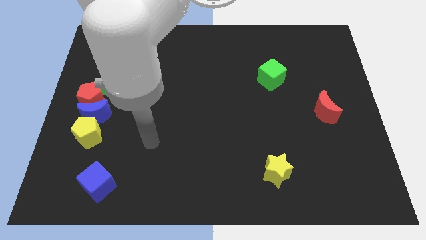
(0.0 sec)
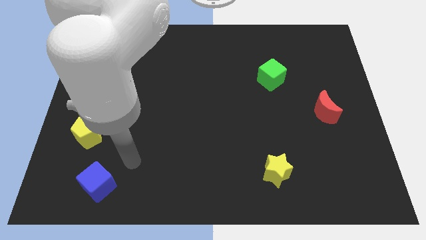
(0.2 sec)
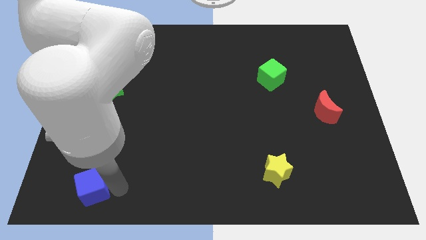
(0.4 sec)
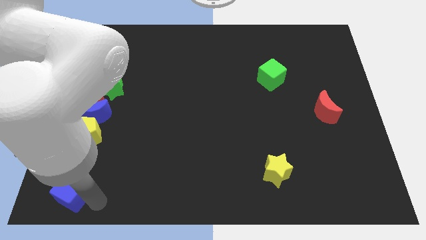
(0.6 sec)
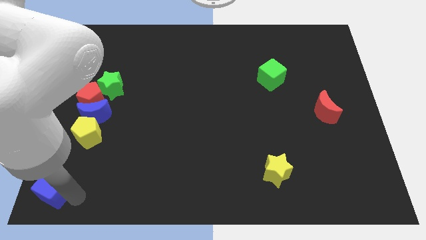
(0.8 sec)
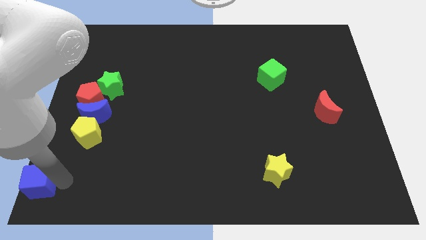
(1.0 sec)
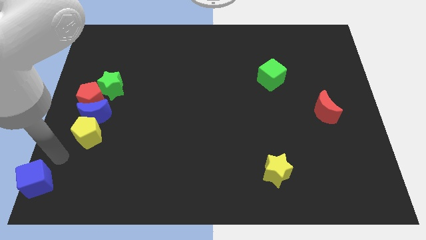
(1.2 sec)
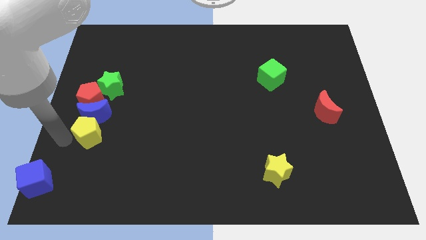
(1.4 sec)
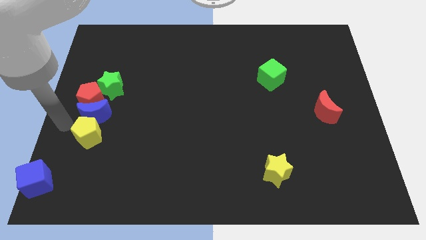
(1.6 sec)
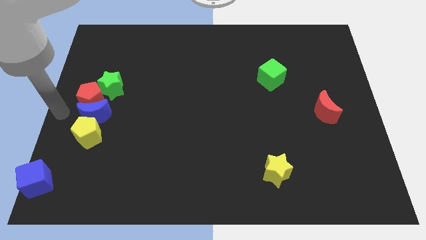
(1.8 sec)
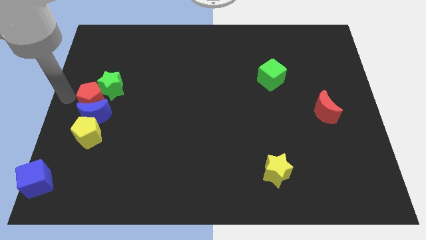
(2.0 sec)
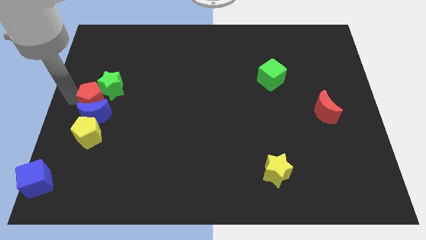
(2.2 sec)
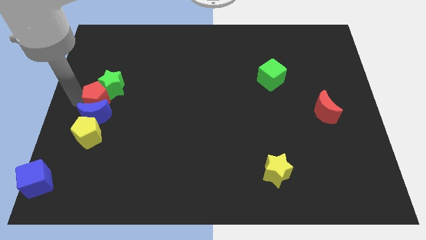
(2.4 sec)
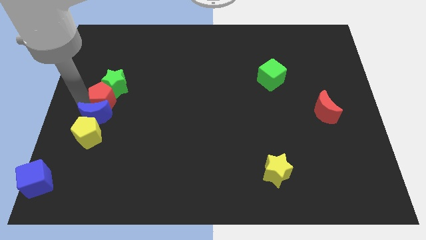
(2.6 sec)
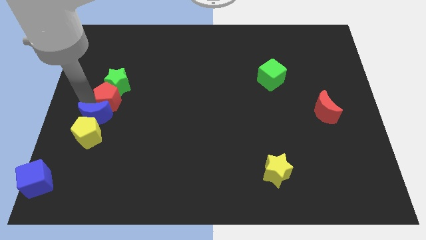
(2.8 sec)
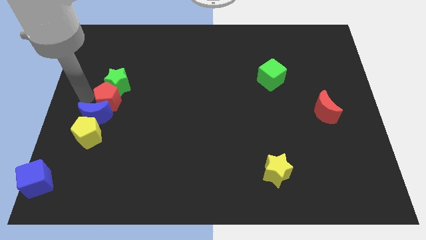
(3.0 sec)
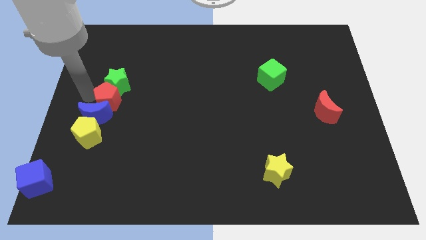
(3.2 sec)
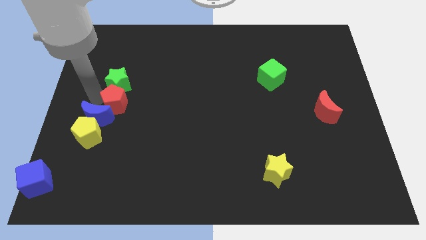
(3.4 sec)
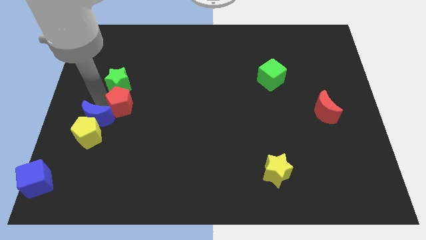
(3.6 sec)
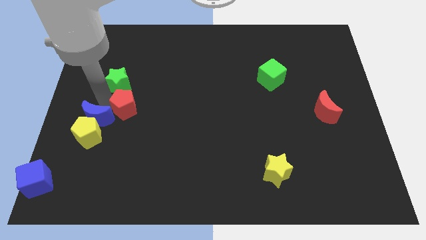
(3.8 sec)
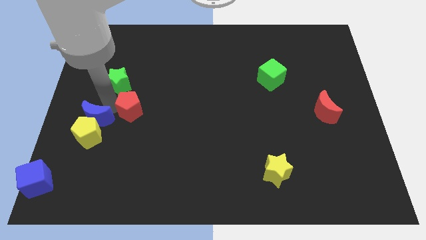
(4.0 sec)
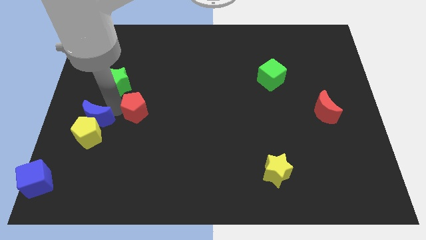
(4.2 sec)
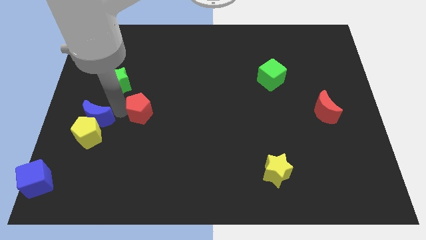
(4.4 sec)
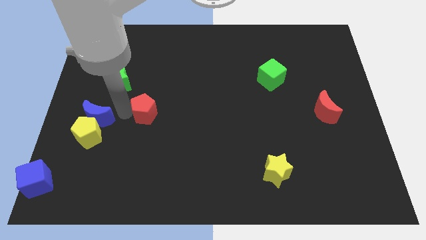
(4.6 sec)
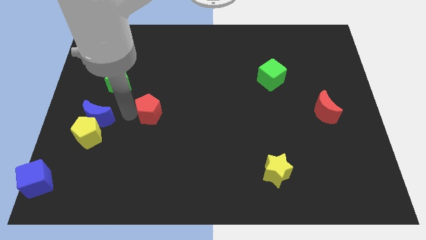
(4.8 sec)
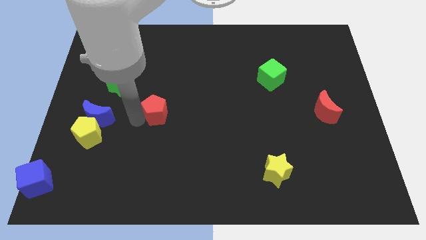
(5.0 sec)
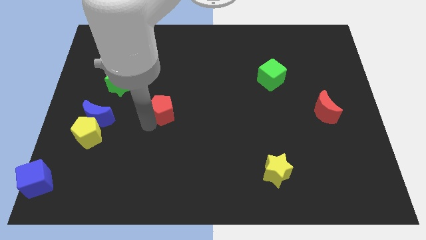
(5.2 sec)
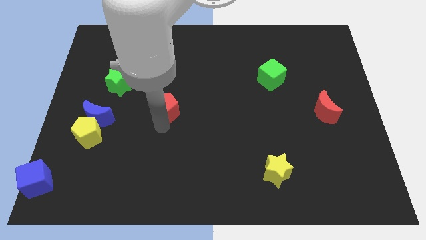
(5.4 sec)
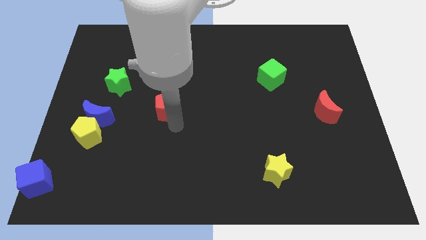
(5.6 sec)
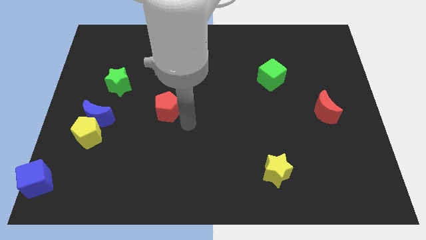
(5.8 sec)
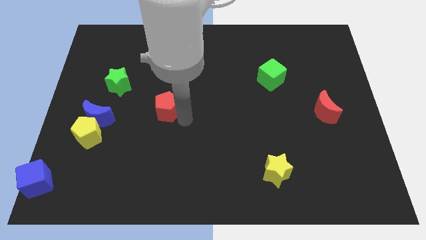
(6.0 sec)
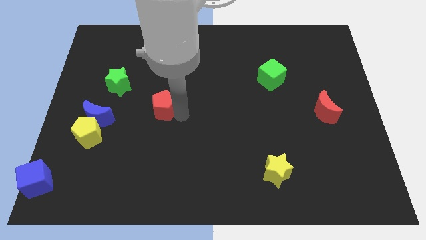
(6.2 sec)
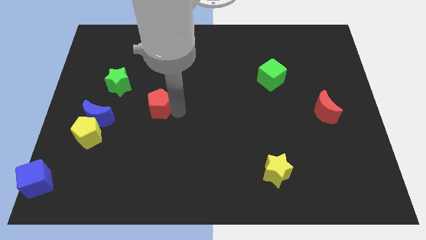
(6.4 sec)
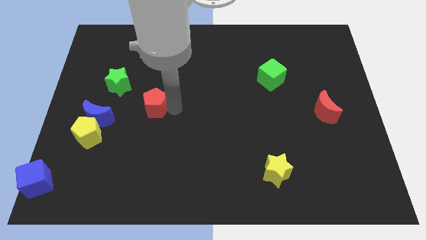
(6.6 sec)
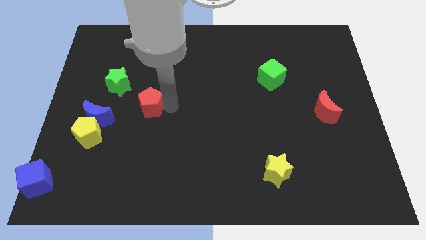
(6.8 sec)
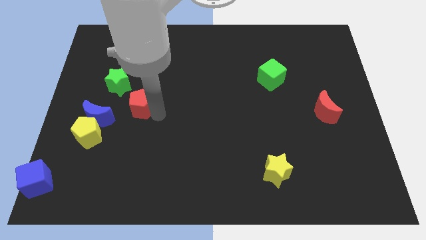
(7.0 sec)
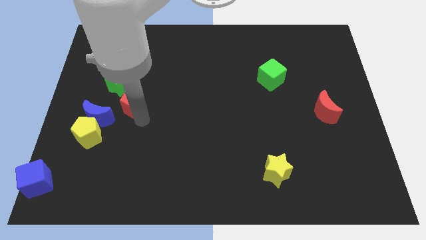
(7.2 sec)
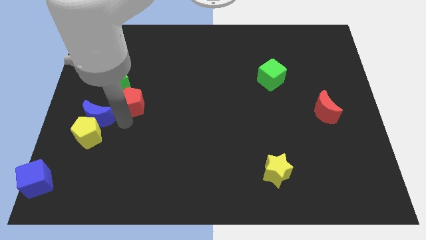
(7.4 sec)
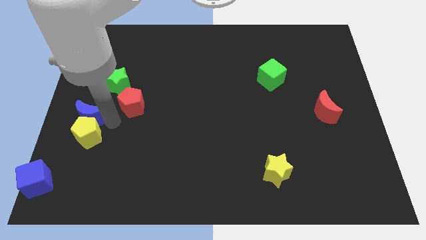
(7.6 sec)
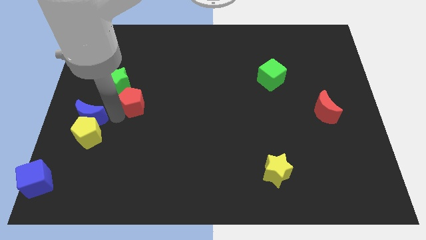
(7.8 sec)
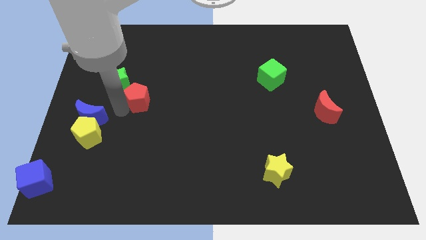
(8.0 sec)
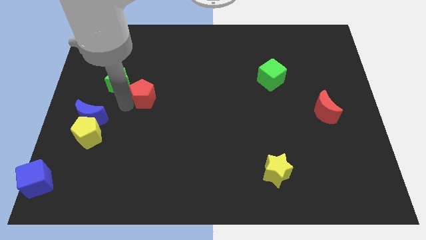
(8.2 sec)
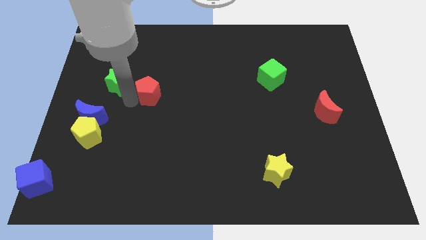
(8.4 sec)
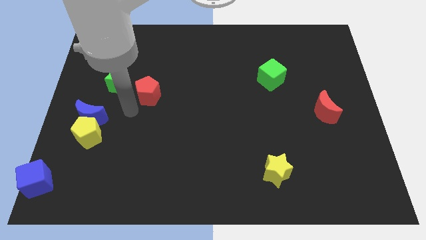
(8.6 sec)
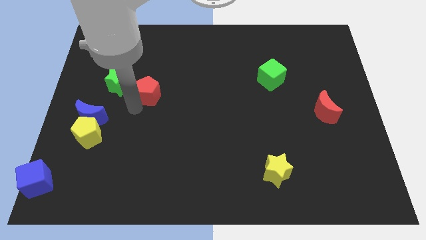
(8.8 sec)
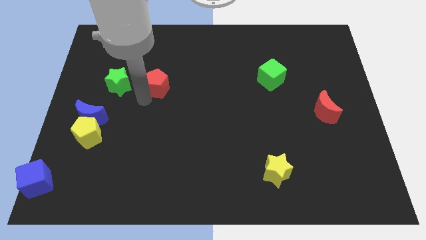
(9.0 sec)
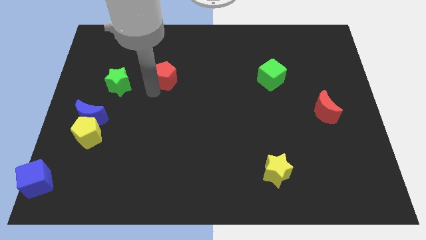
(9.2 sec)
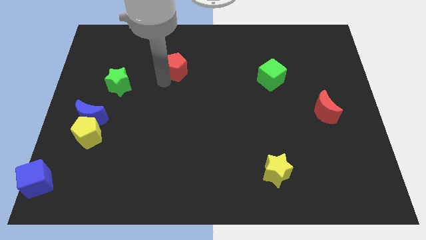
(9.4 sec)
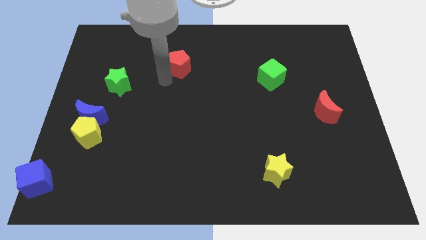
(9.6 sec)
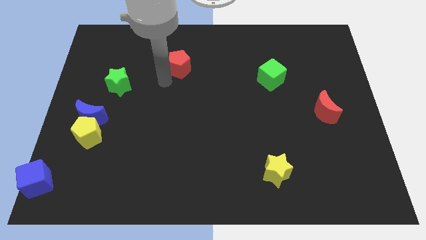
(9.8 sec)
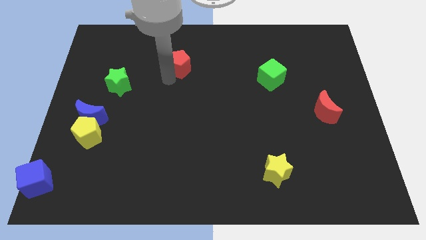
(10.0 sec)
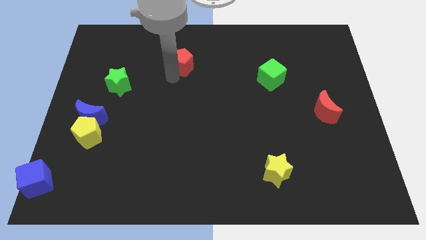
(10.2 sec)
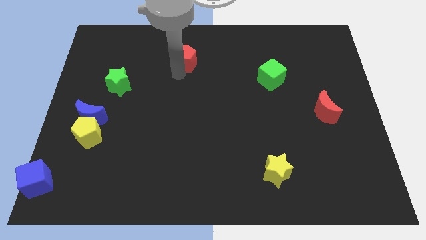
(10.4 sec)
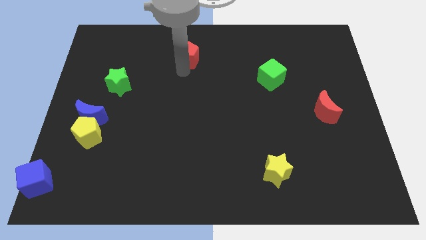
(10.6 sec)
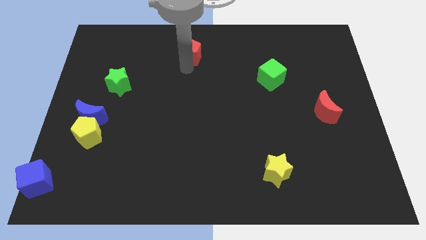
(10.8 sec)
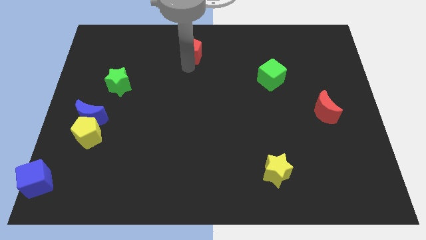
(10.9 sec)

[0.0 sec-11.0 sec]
slide the red pentagon to the towards your base

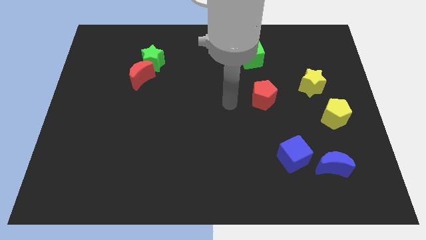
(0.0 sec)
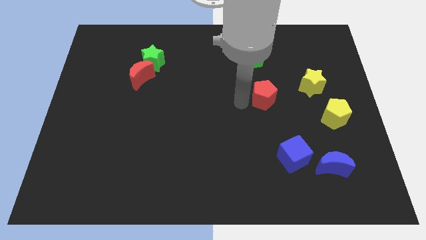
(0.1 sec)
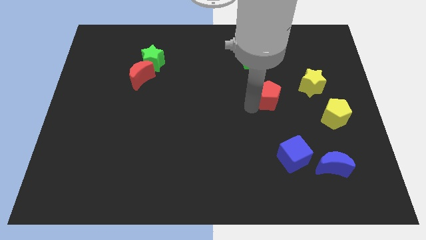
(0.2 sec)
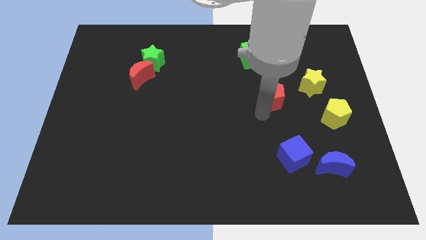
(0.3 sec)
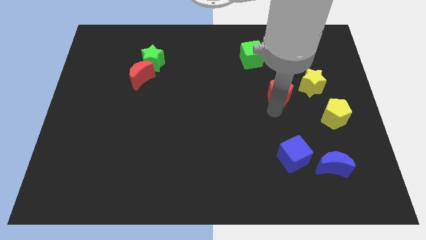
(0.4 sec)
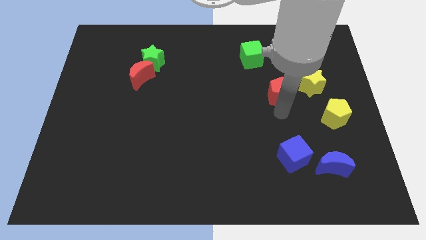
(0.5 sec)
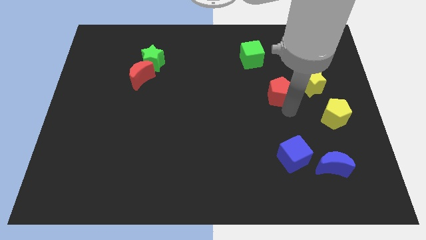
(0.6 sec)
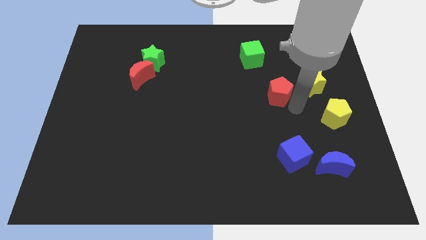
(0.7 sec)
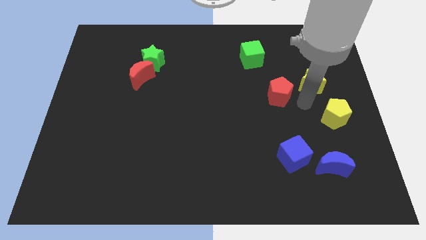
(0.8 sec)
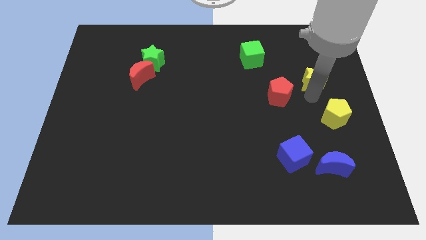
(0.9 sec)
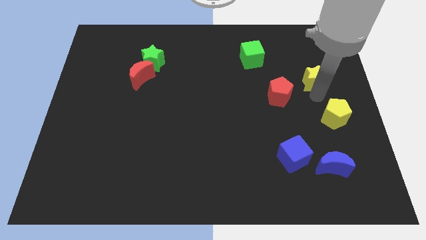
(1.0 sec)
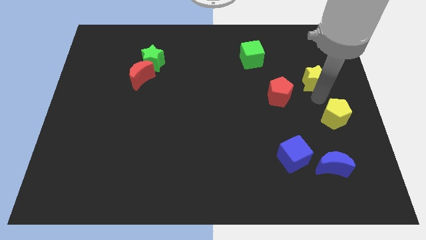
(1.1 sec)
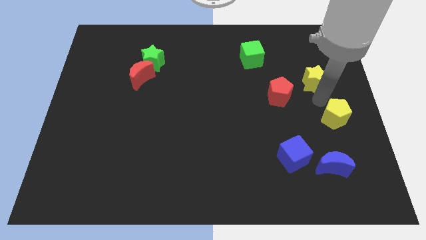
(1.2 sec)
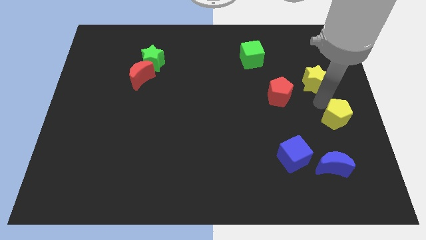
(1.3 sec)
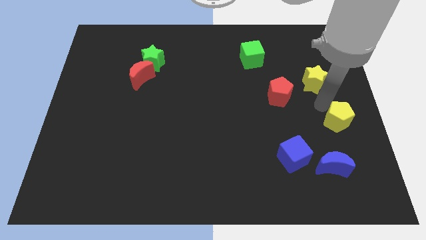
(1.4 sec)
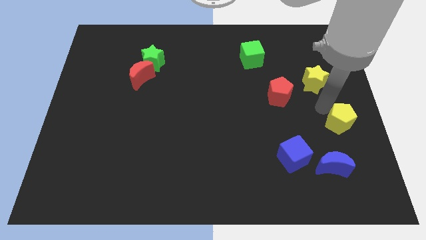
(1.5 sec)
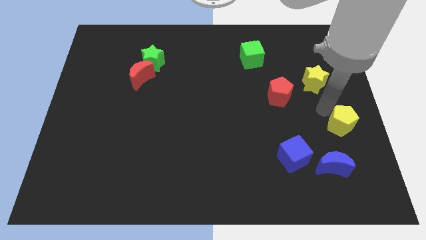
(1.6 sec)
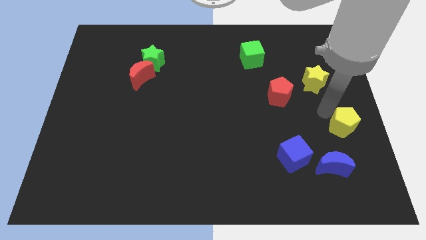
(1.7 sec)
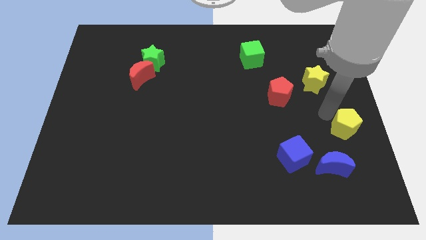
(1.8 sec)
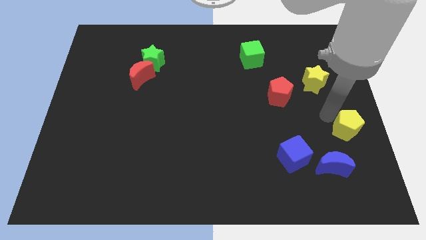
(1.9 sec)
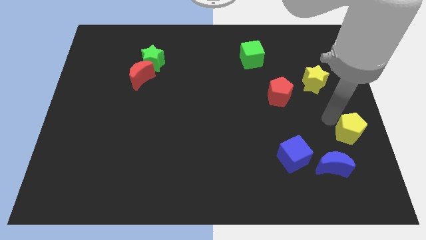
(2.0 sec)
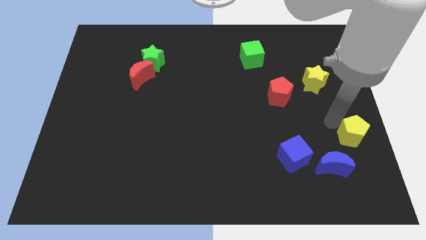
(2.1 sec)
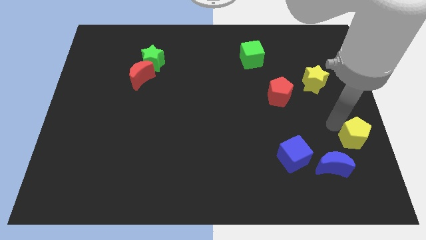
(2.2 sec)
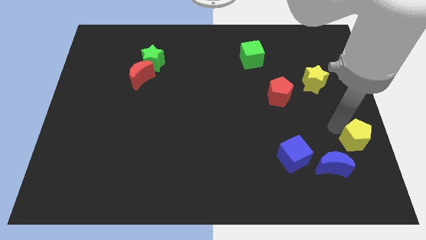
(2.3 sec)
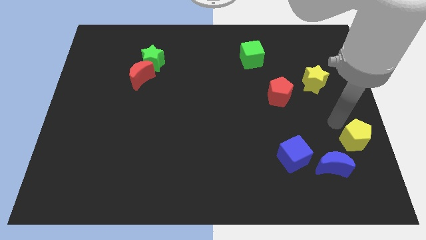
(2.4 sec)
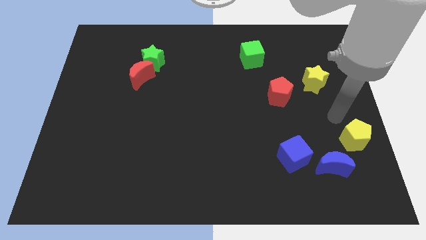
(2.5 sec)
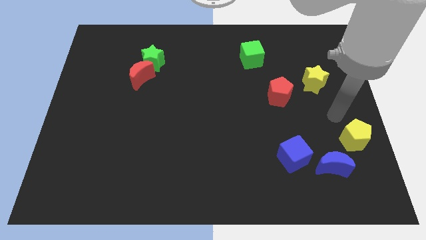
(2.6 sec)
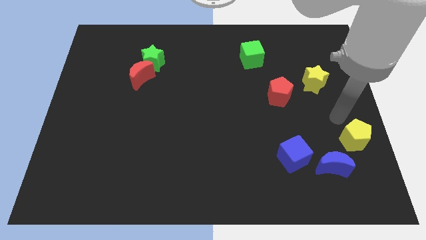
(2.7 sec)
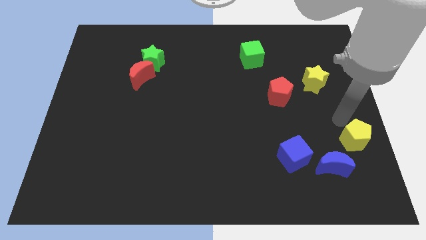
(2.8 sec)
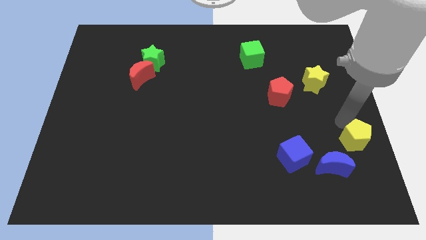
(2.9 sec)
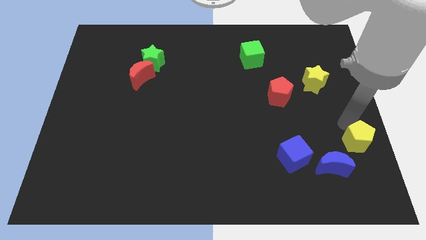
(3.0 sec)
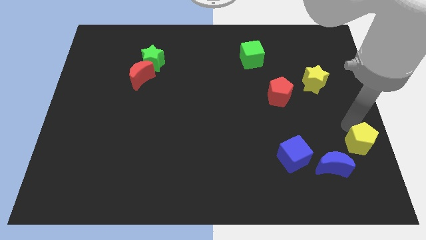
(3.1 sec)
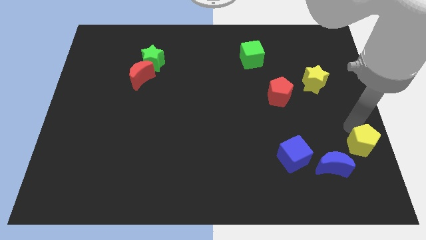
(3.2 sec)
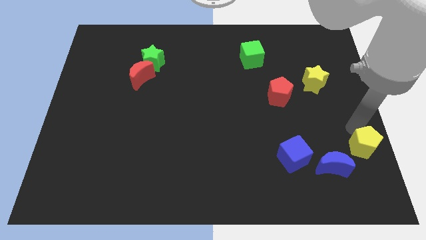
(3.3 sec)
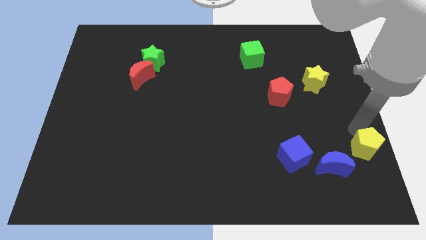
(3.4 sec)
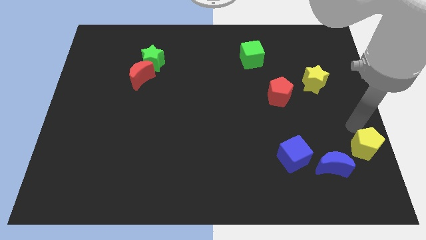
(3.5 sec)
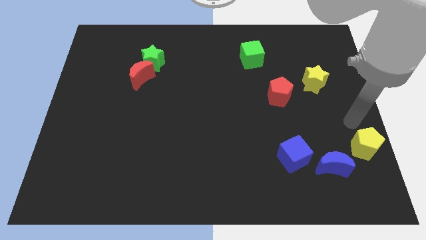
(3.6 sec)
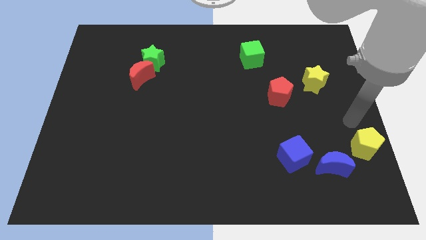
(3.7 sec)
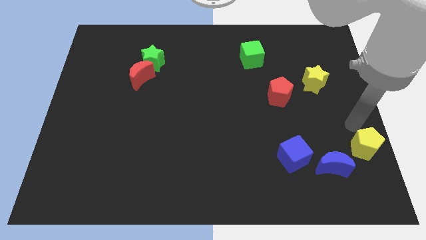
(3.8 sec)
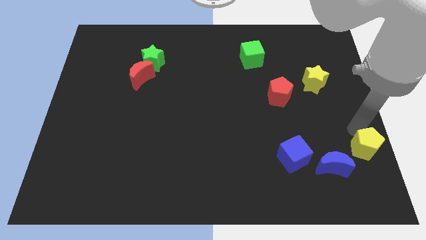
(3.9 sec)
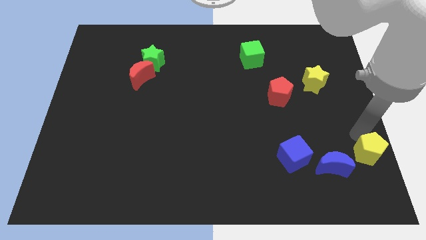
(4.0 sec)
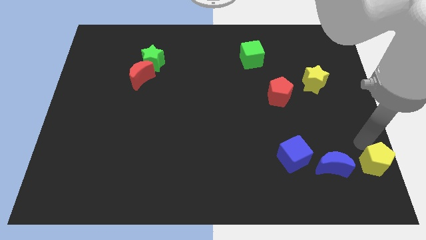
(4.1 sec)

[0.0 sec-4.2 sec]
put the yellow pentagon to the lower right corner
